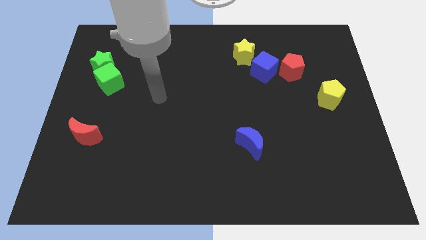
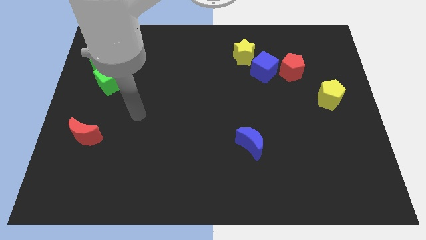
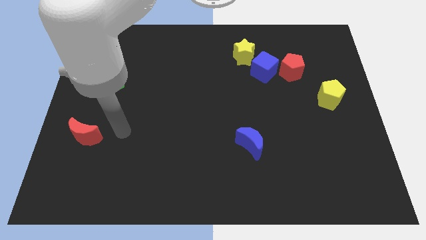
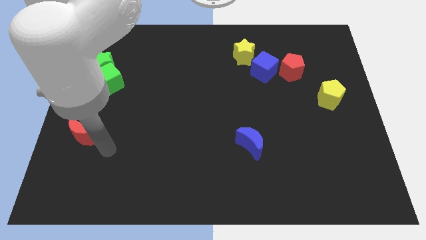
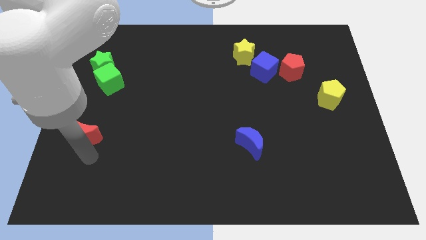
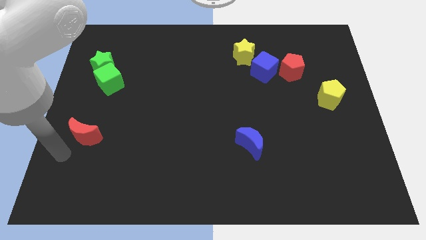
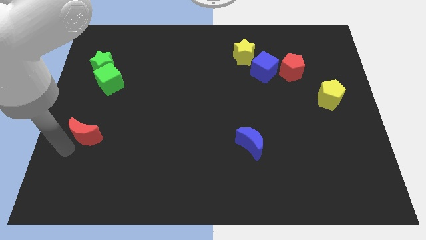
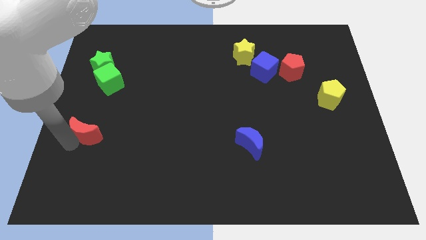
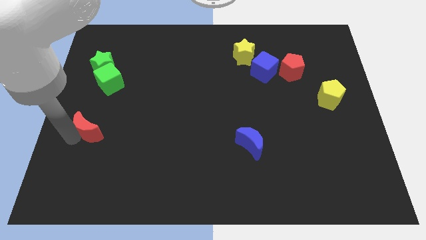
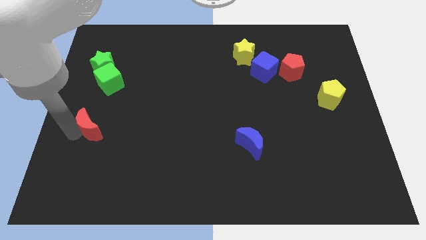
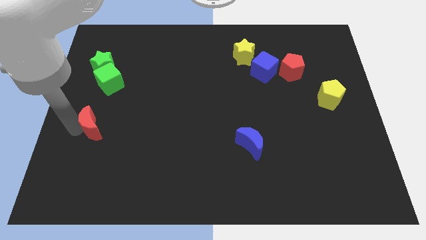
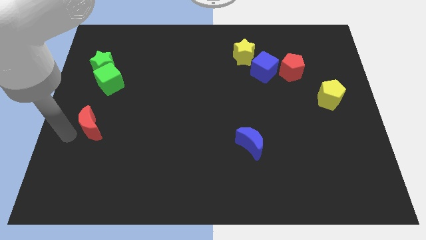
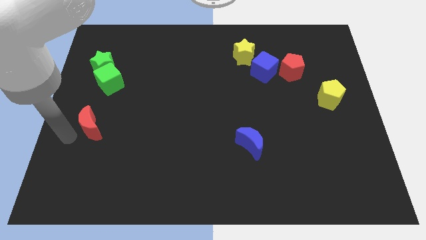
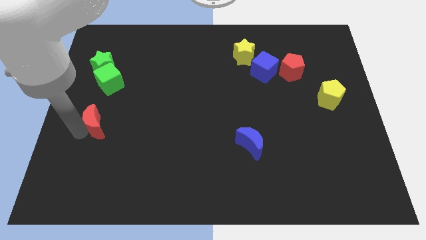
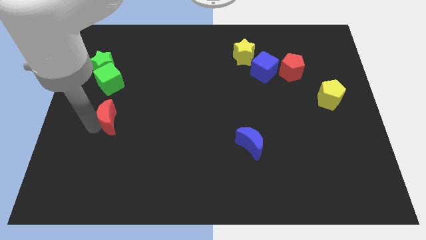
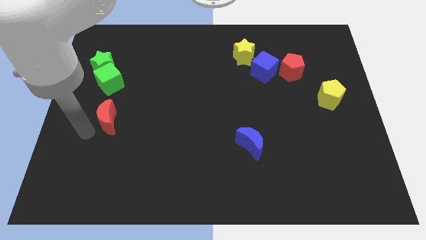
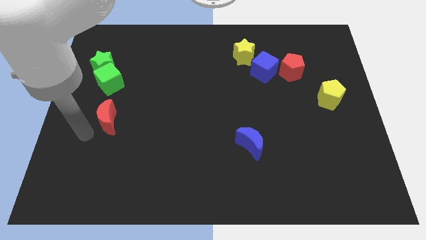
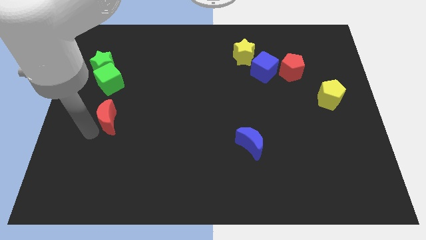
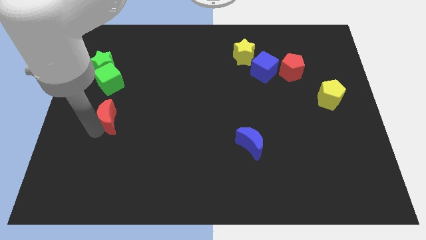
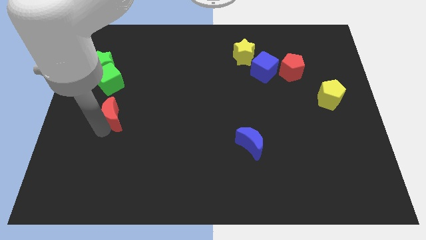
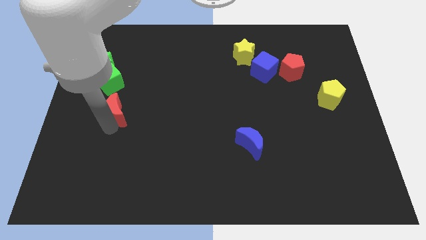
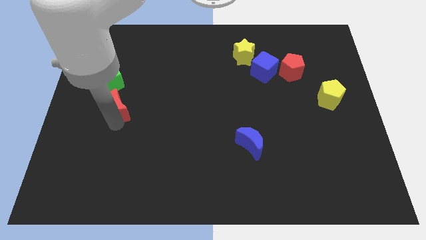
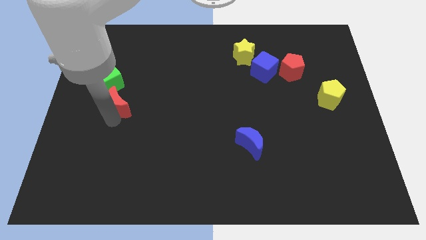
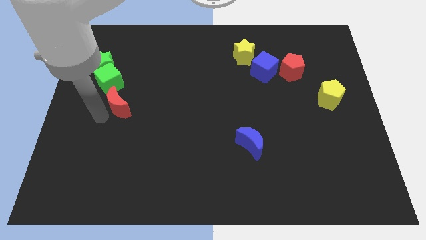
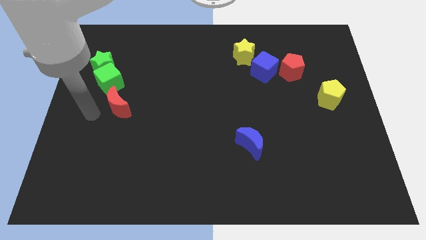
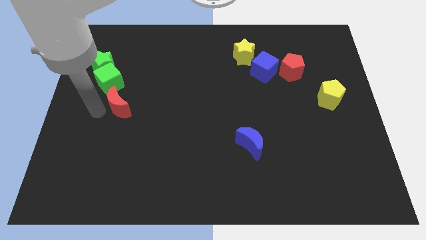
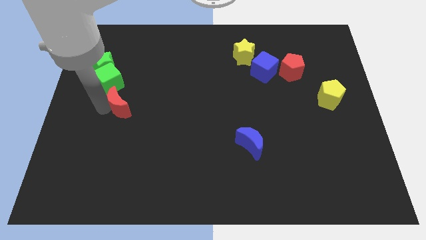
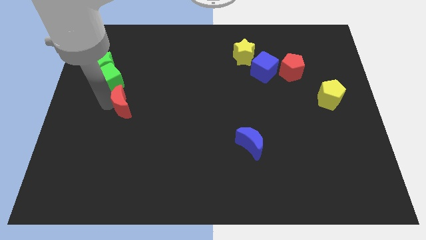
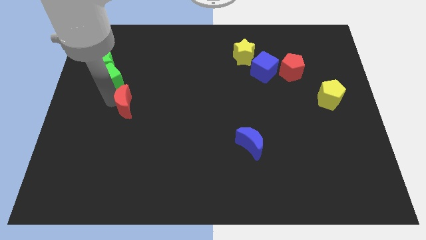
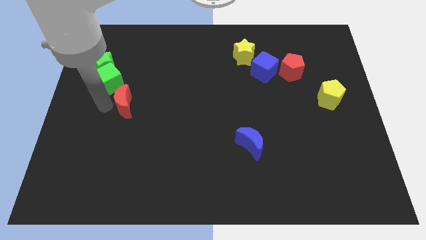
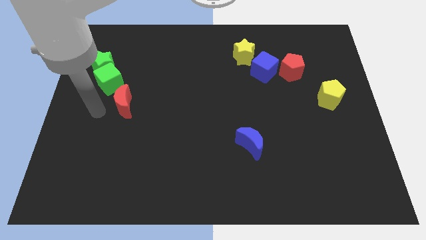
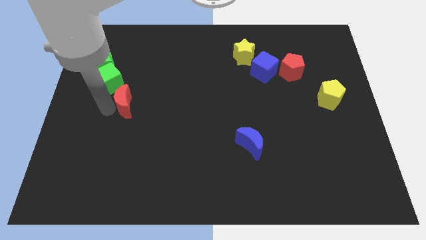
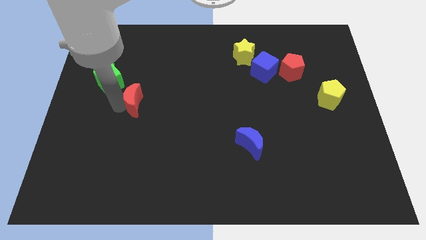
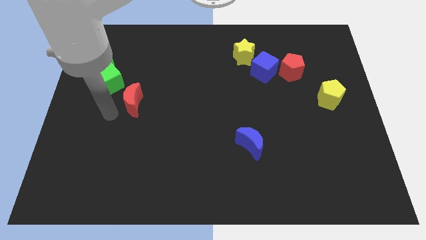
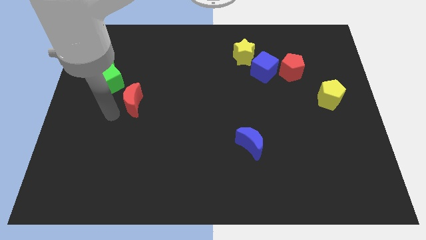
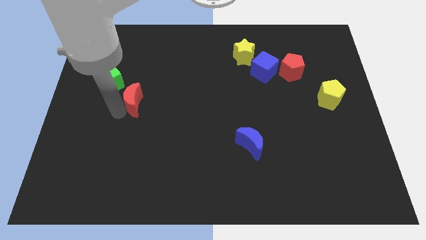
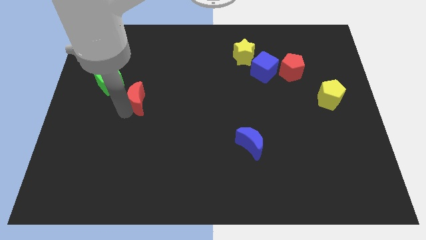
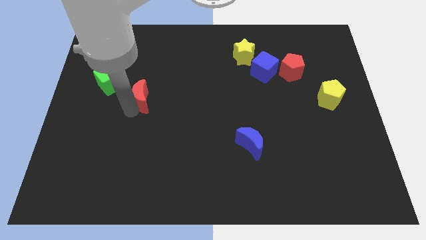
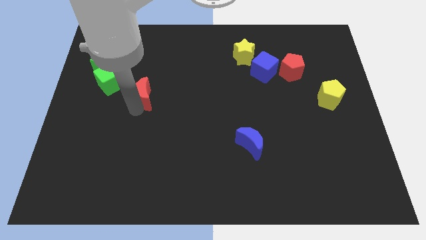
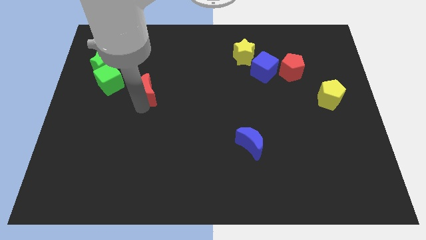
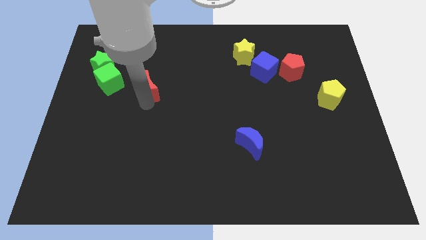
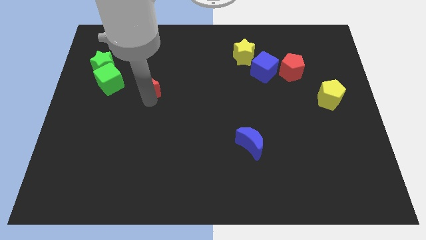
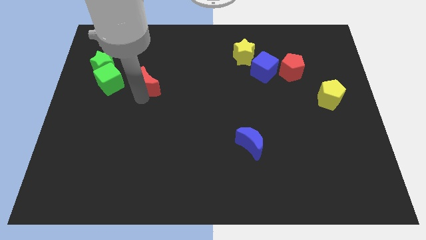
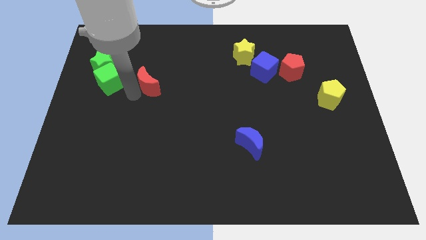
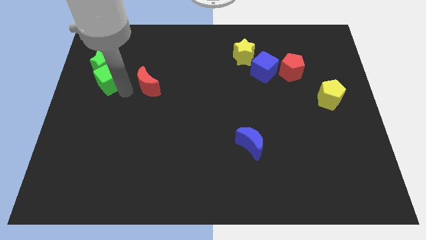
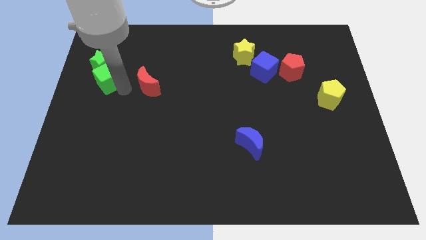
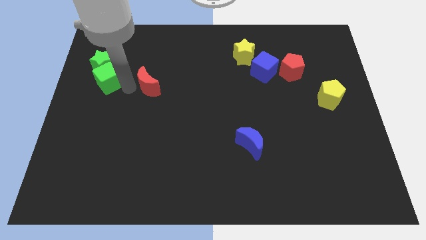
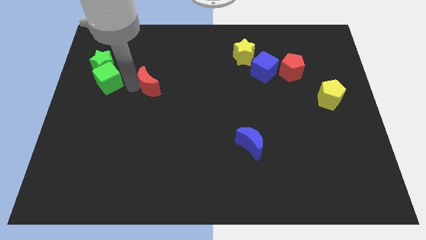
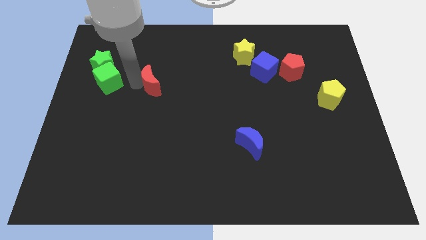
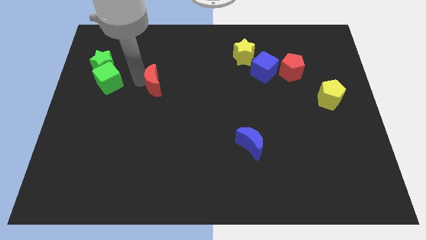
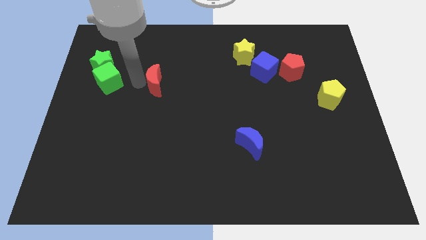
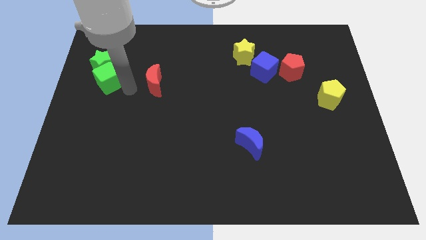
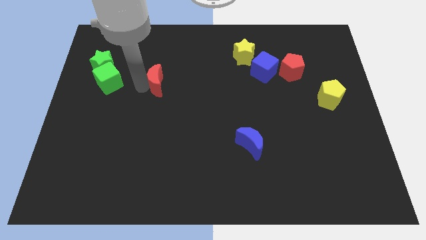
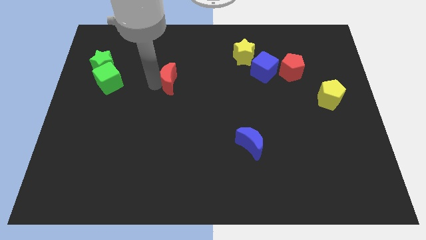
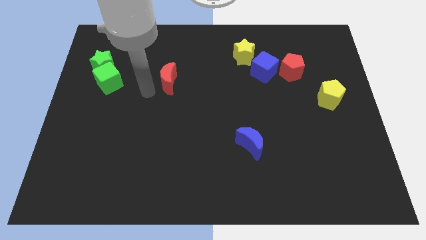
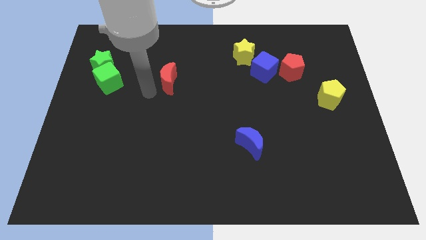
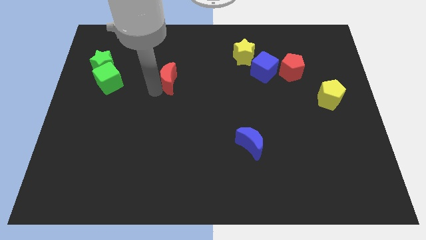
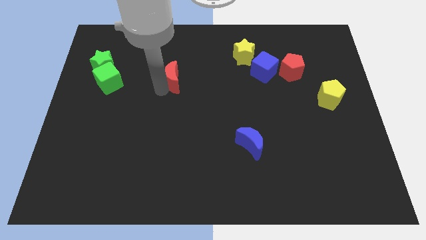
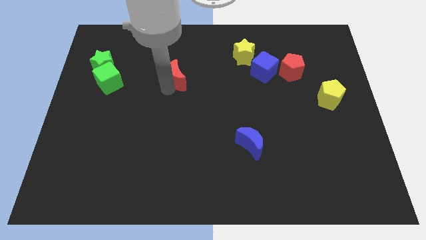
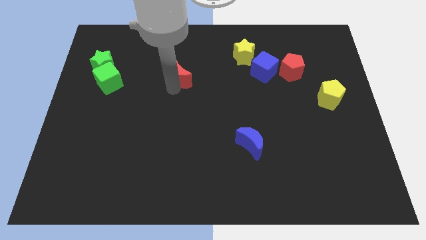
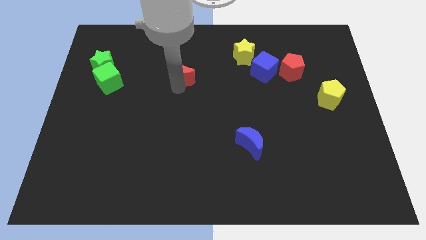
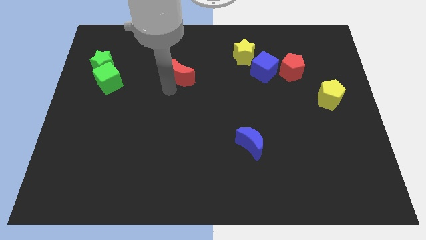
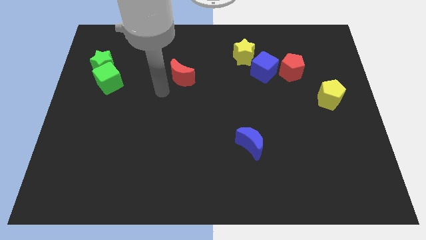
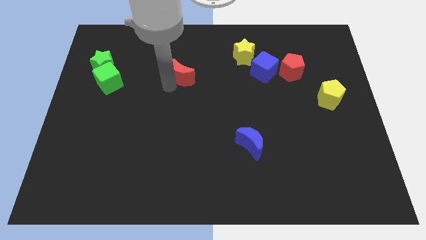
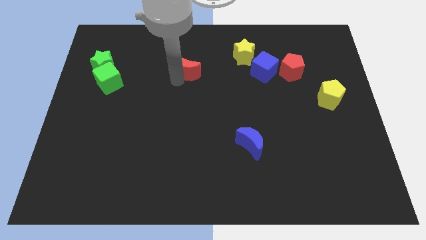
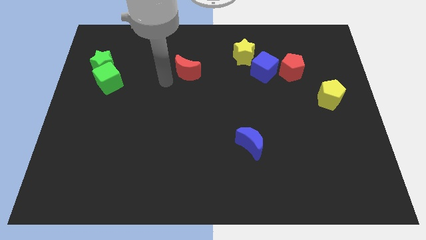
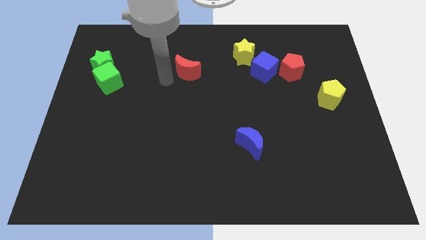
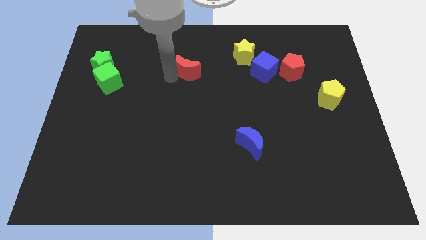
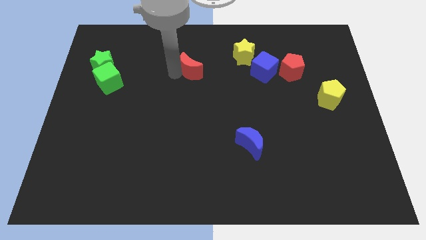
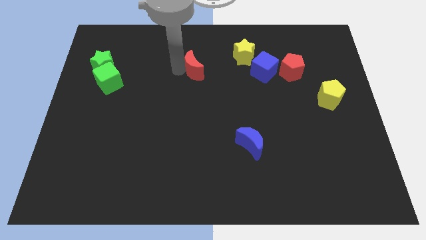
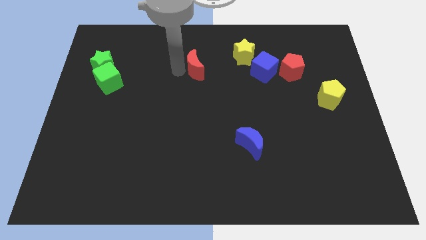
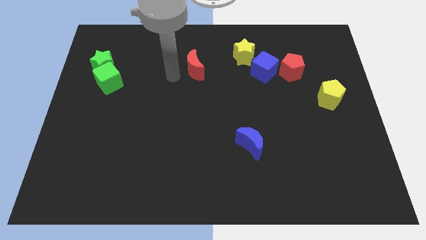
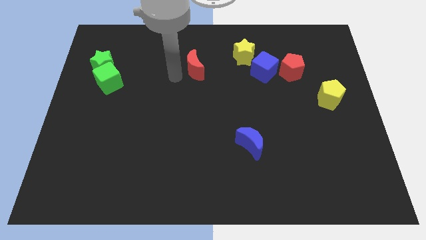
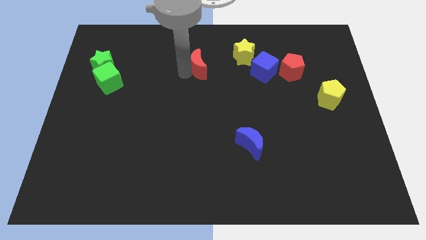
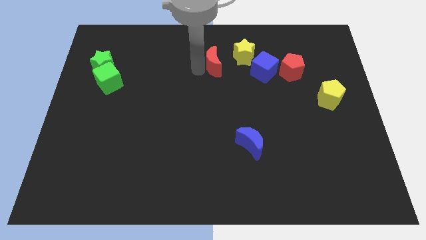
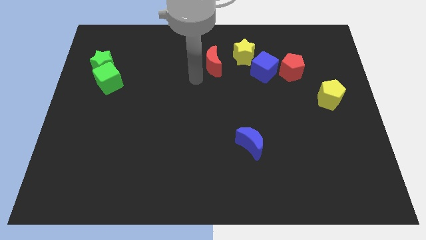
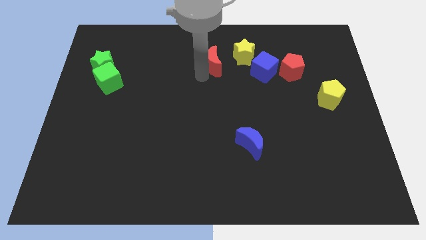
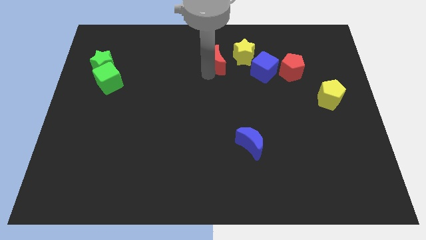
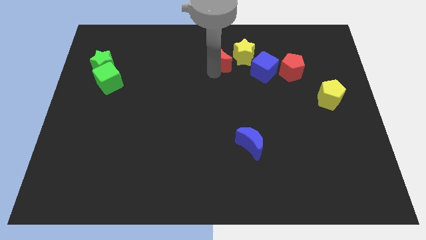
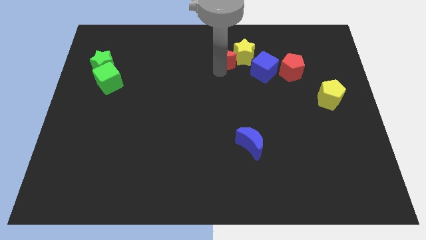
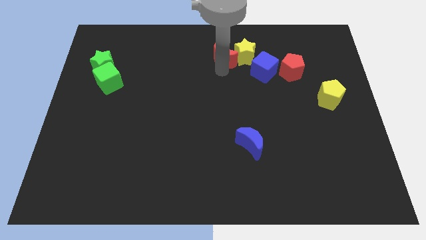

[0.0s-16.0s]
move the red moon to the top left of the blue cube
